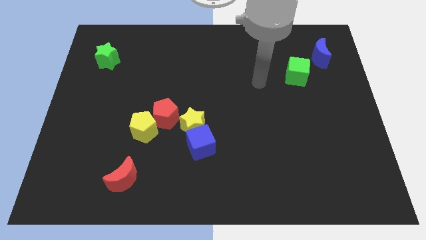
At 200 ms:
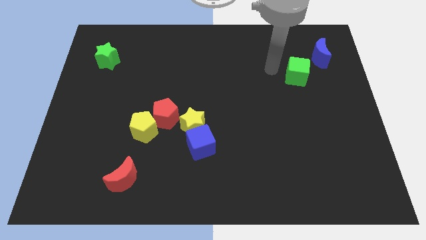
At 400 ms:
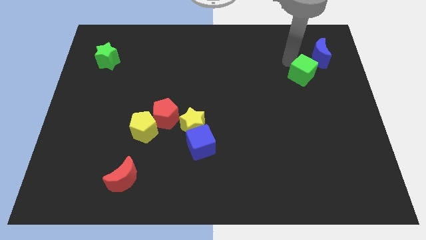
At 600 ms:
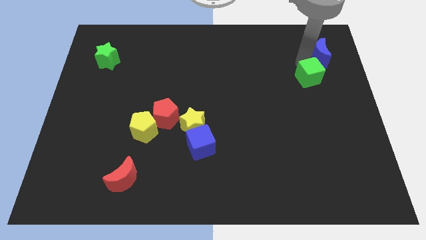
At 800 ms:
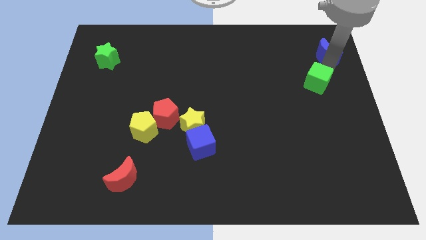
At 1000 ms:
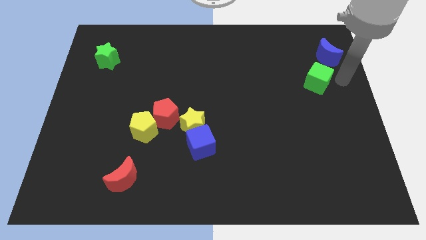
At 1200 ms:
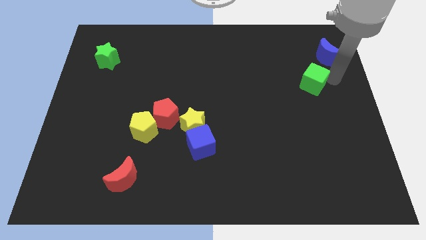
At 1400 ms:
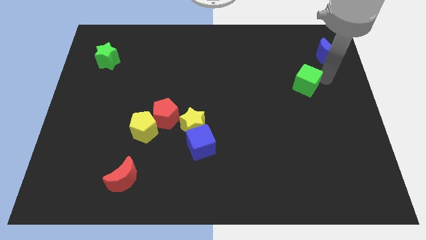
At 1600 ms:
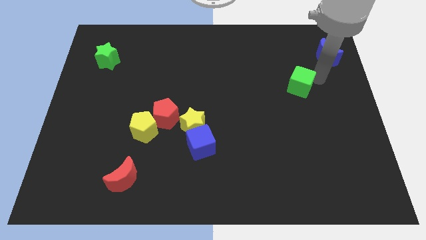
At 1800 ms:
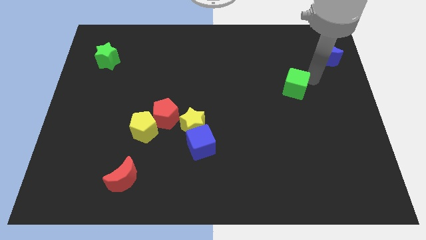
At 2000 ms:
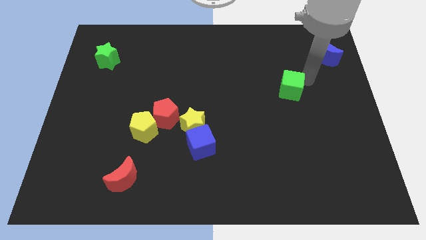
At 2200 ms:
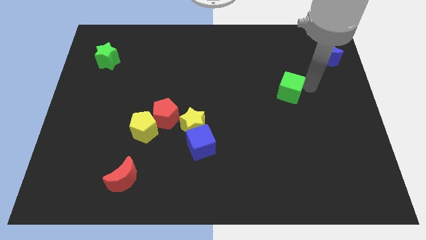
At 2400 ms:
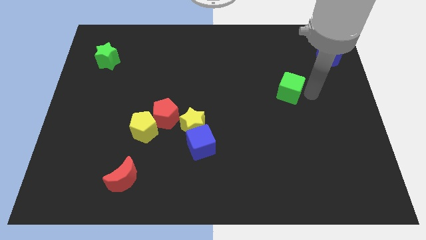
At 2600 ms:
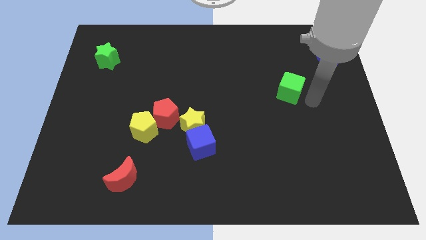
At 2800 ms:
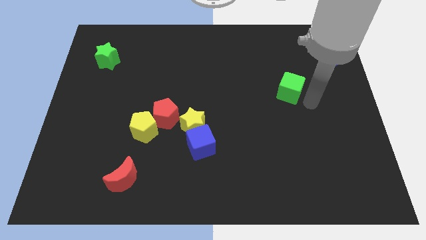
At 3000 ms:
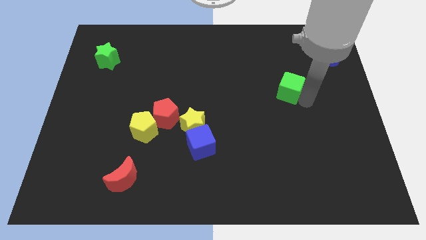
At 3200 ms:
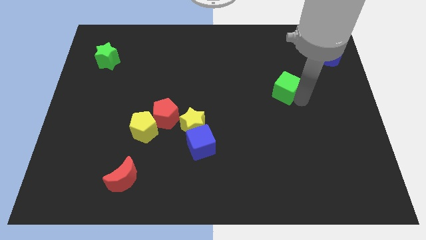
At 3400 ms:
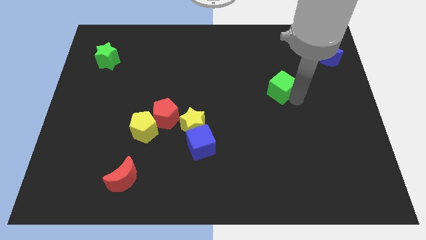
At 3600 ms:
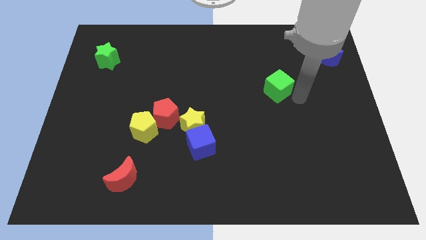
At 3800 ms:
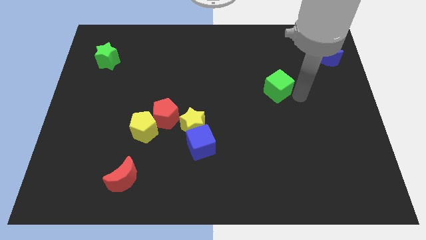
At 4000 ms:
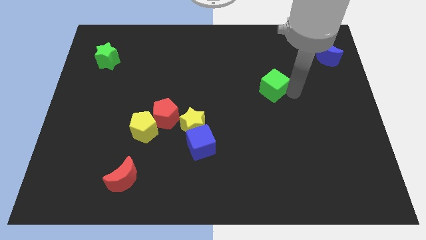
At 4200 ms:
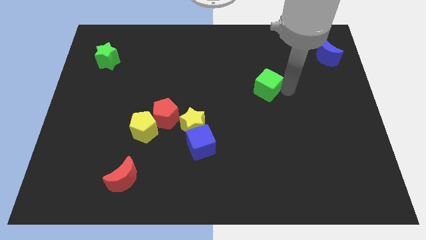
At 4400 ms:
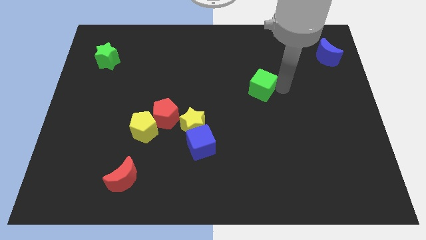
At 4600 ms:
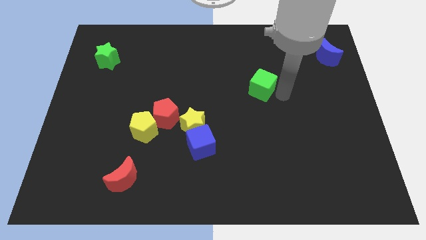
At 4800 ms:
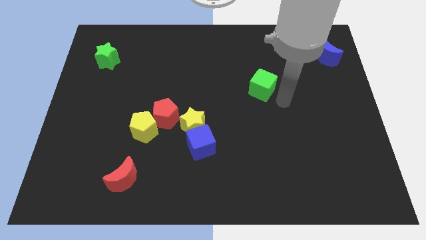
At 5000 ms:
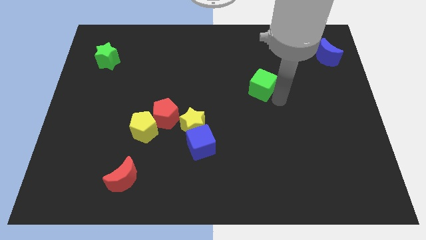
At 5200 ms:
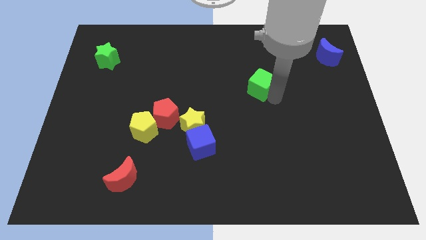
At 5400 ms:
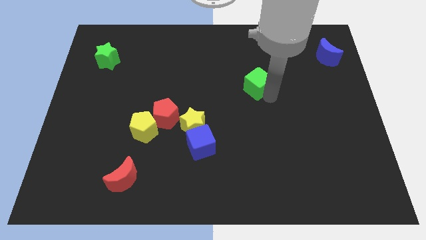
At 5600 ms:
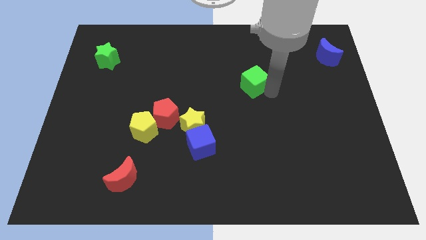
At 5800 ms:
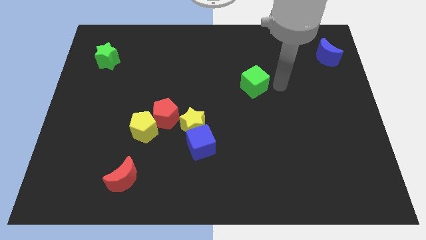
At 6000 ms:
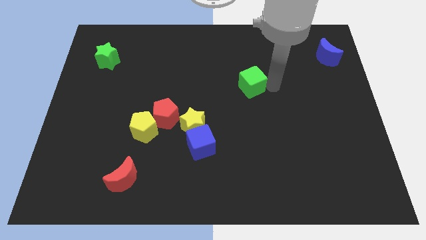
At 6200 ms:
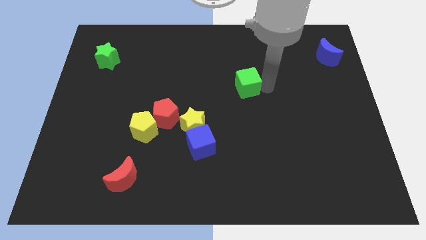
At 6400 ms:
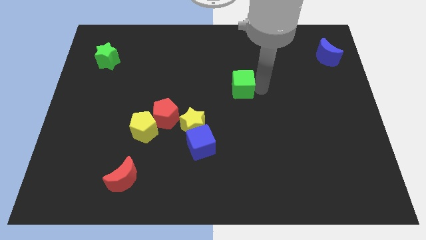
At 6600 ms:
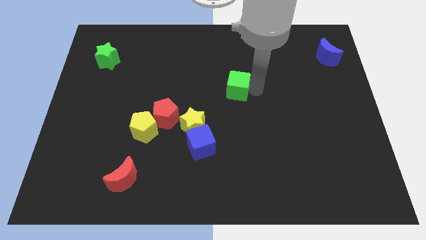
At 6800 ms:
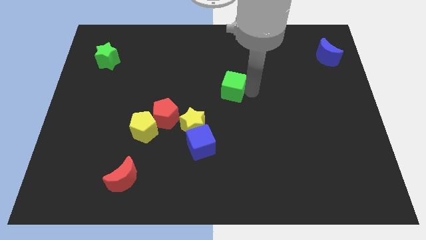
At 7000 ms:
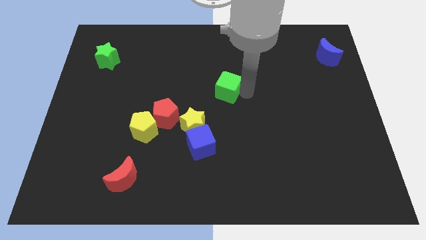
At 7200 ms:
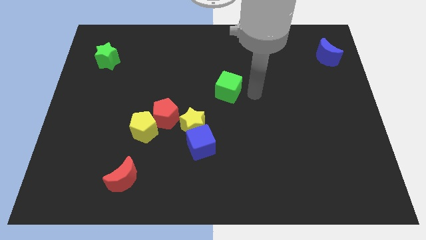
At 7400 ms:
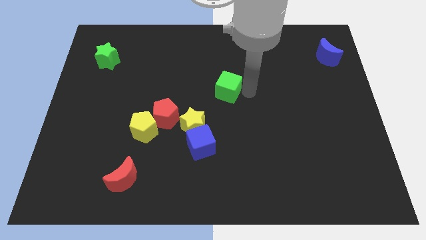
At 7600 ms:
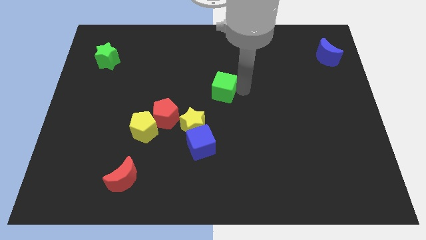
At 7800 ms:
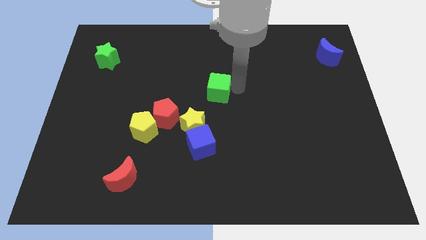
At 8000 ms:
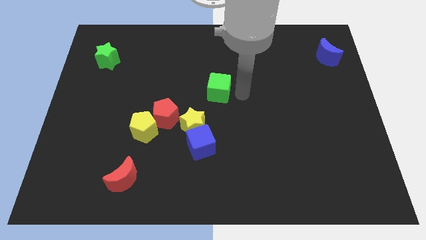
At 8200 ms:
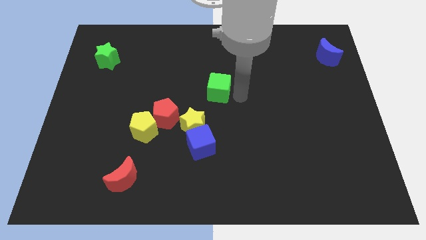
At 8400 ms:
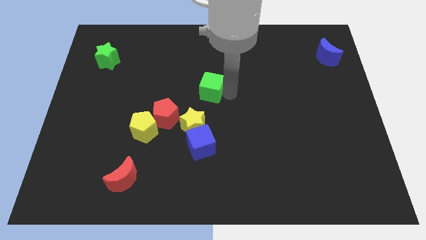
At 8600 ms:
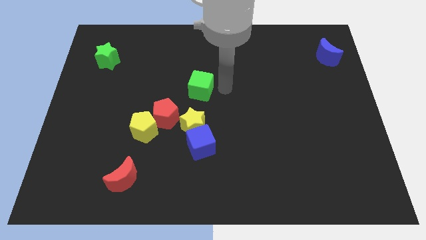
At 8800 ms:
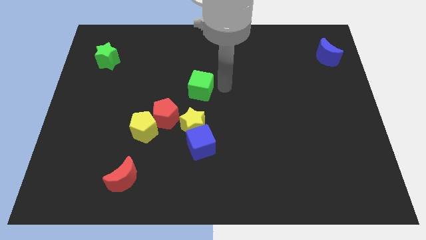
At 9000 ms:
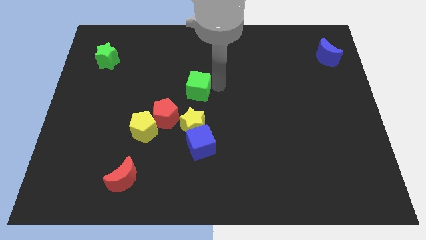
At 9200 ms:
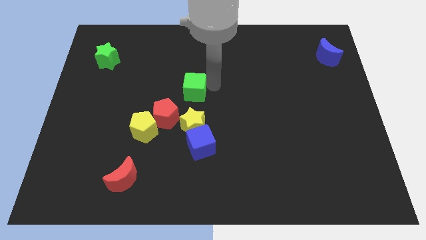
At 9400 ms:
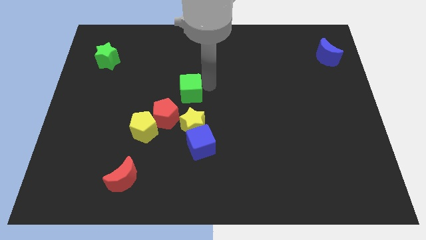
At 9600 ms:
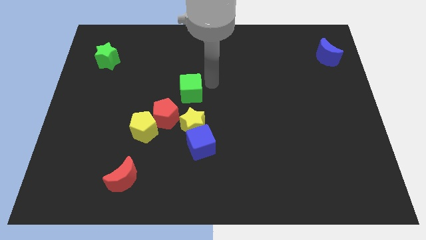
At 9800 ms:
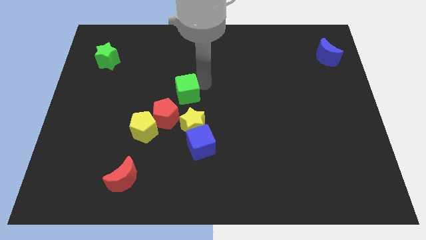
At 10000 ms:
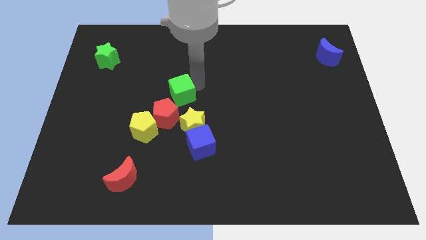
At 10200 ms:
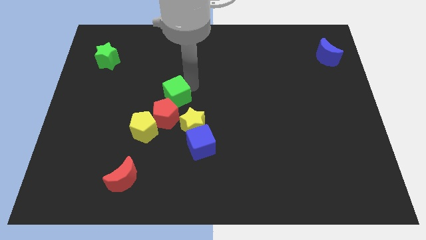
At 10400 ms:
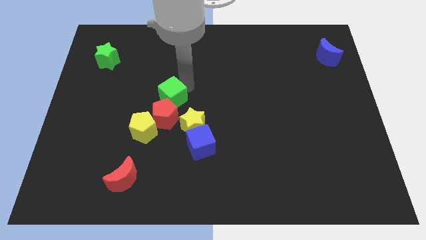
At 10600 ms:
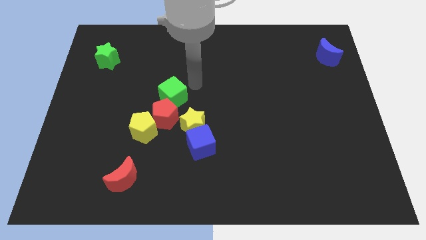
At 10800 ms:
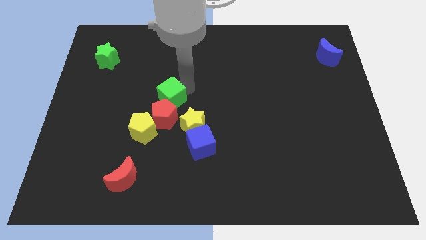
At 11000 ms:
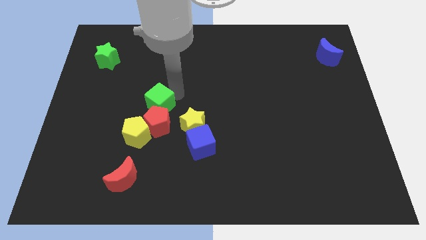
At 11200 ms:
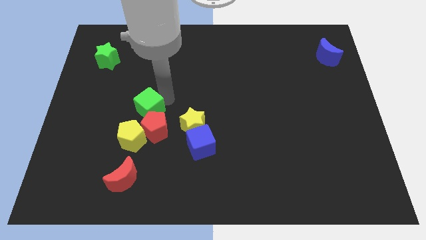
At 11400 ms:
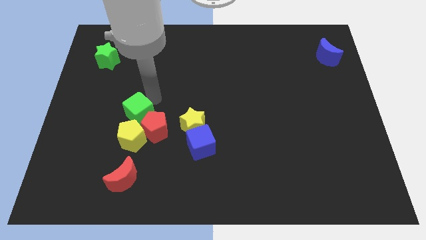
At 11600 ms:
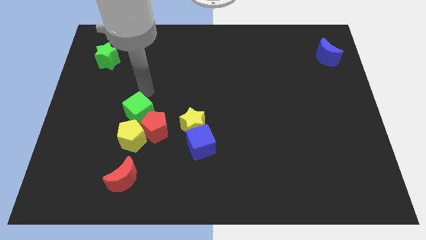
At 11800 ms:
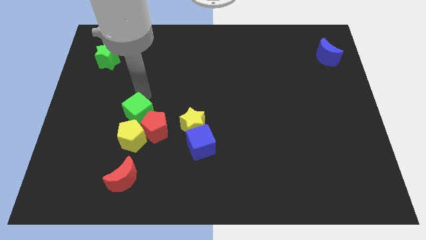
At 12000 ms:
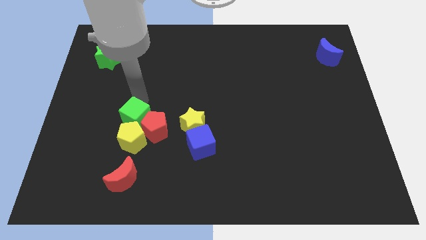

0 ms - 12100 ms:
move the green cube to the yellow pentagon

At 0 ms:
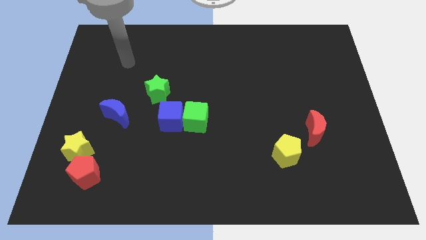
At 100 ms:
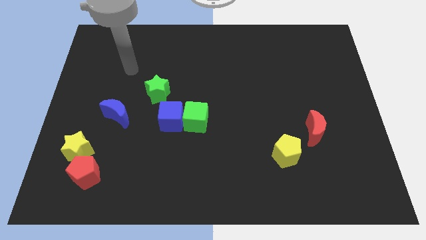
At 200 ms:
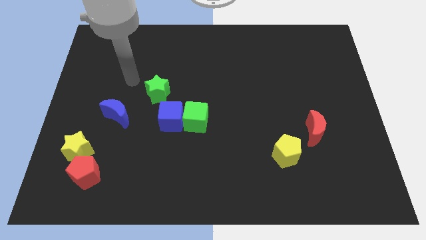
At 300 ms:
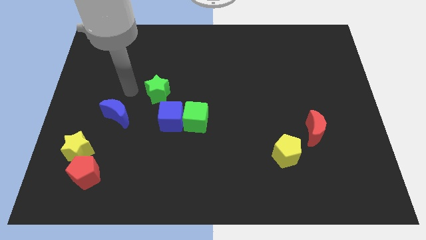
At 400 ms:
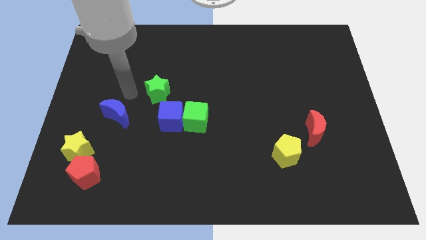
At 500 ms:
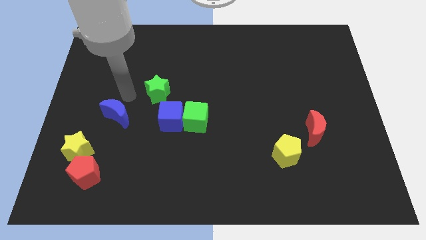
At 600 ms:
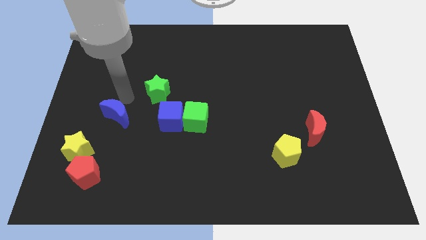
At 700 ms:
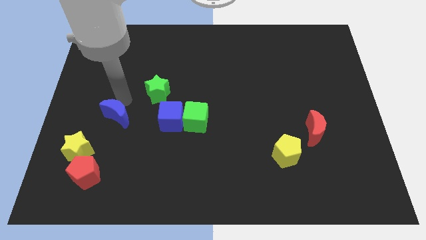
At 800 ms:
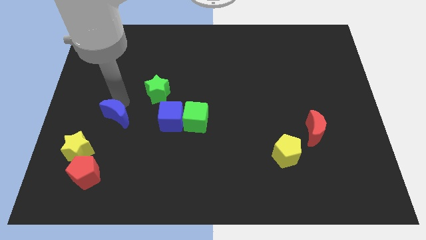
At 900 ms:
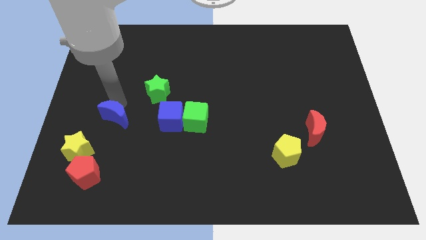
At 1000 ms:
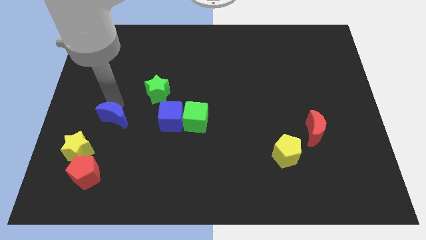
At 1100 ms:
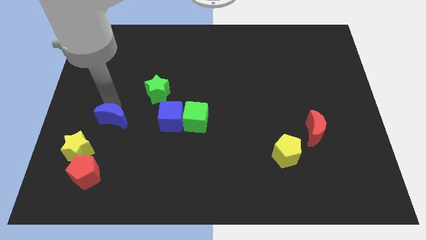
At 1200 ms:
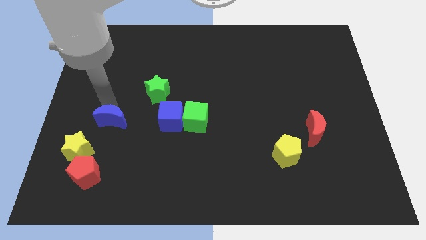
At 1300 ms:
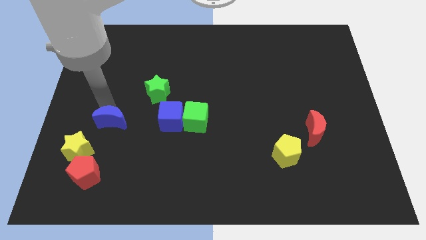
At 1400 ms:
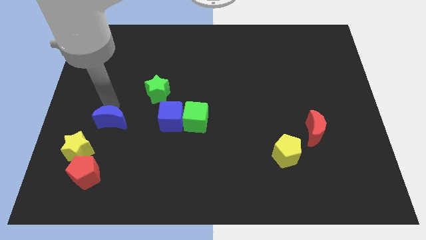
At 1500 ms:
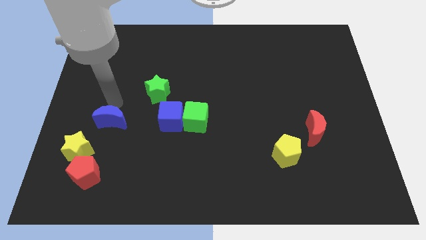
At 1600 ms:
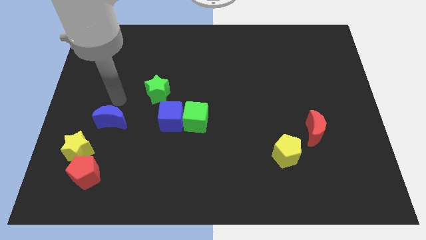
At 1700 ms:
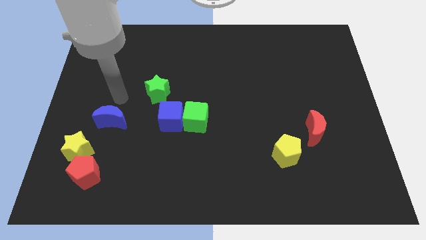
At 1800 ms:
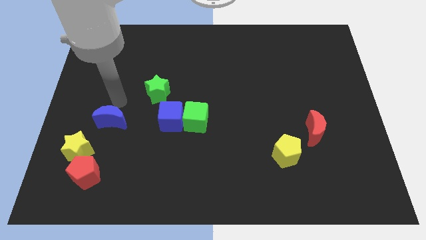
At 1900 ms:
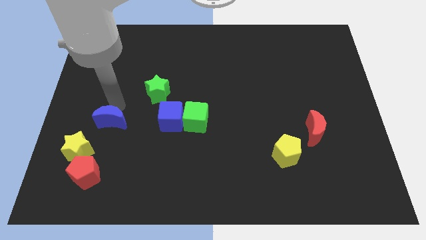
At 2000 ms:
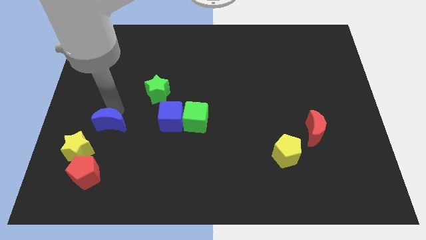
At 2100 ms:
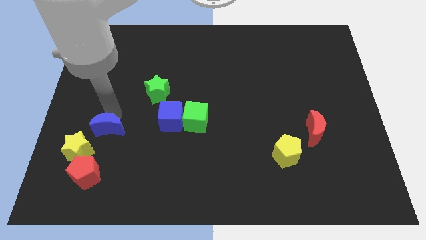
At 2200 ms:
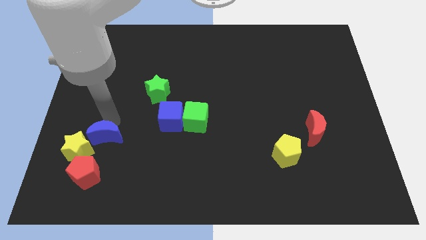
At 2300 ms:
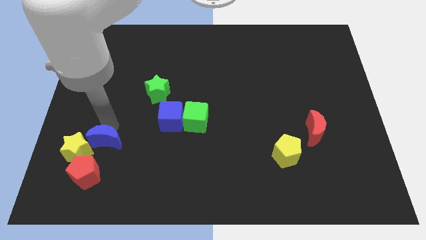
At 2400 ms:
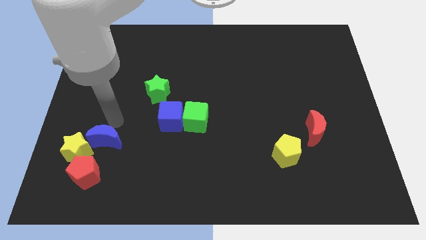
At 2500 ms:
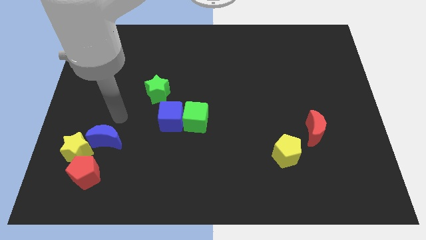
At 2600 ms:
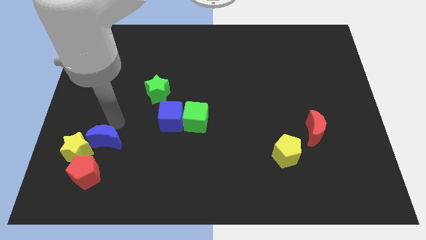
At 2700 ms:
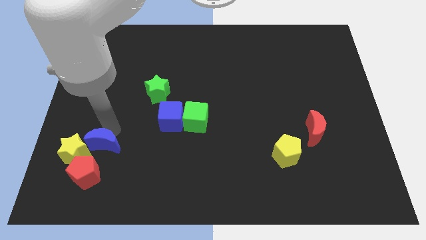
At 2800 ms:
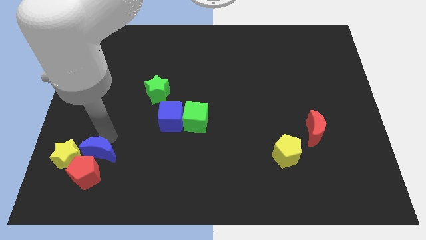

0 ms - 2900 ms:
slide the blue moon to the red pentagon
